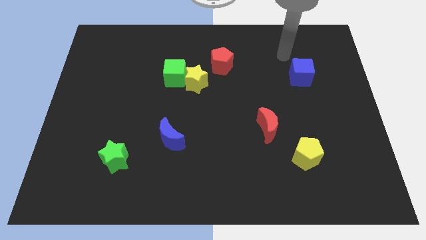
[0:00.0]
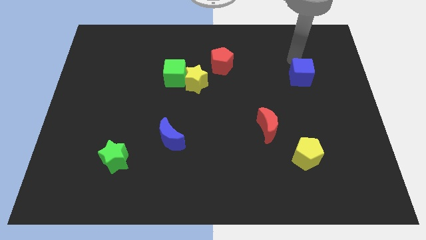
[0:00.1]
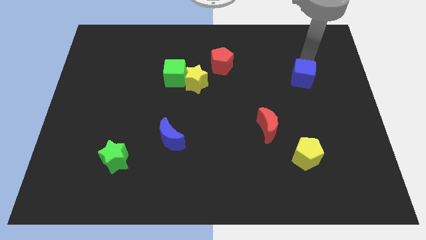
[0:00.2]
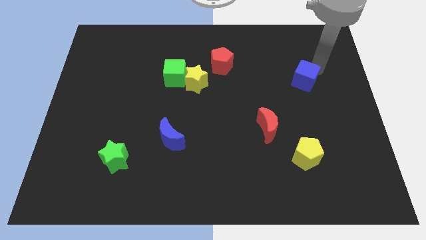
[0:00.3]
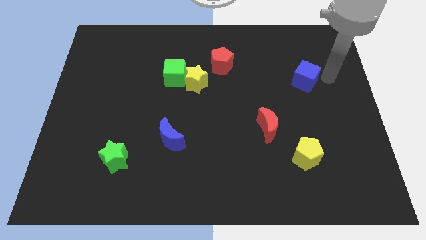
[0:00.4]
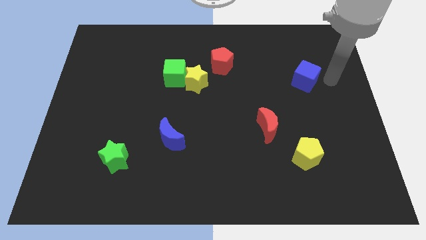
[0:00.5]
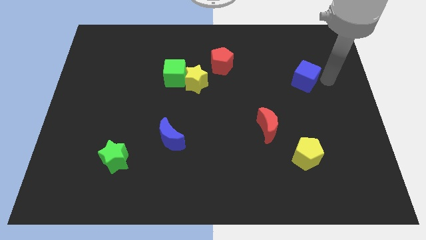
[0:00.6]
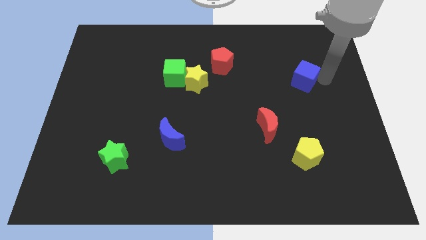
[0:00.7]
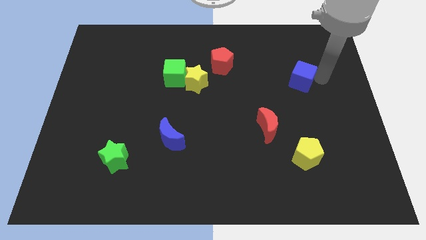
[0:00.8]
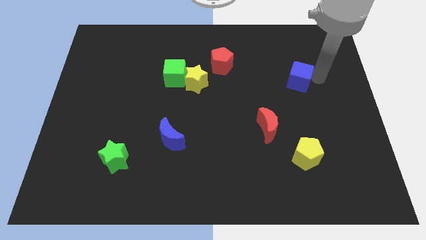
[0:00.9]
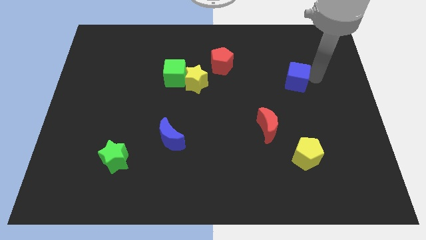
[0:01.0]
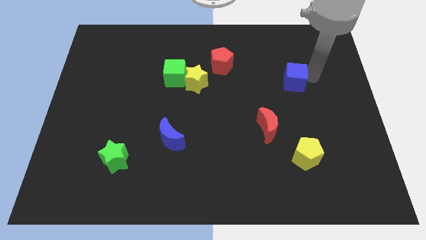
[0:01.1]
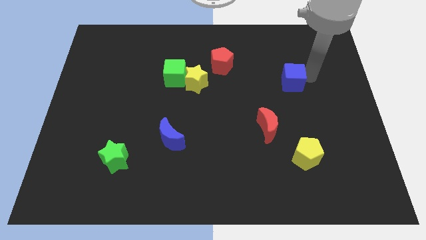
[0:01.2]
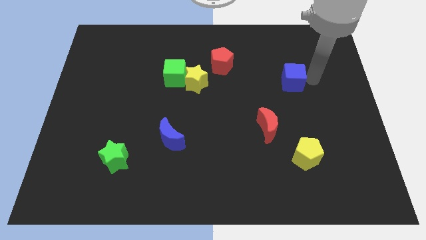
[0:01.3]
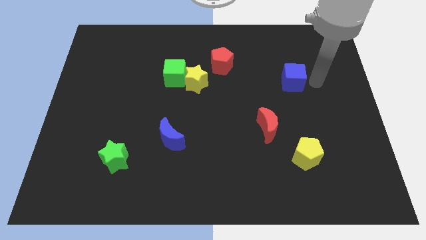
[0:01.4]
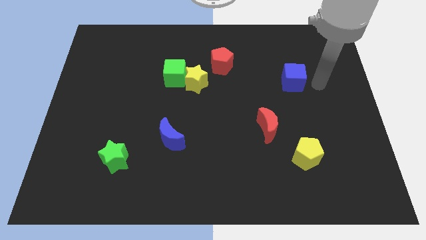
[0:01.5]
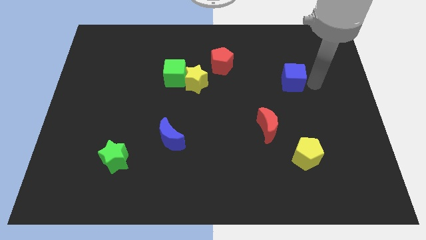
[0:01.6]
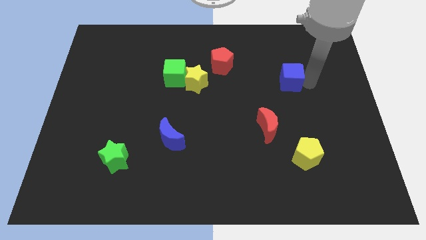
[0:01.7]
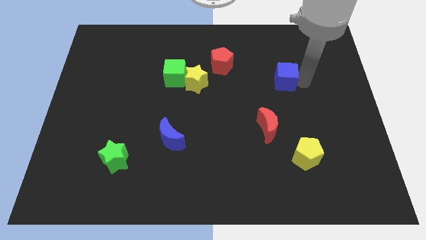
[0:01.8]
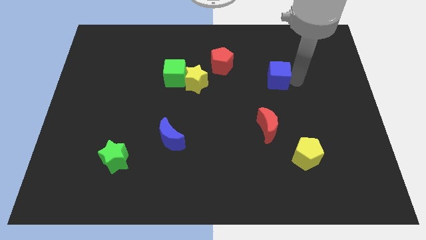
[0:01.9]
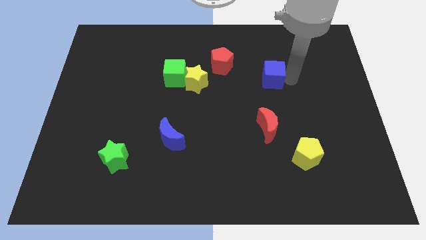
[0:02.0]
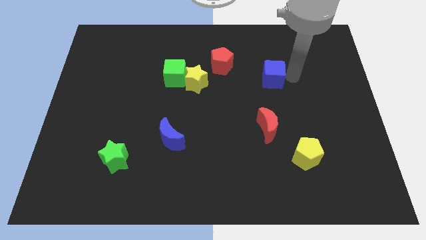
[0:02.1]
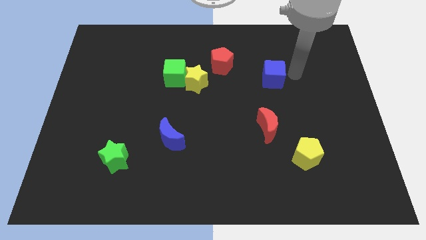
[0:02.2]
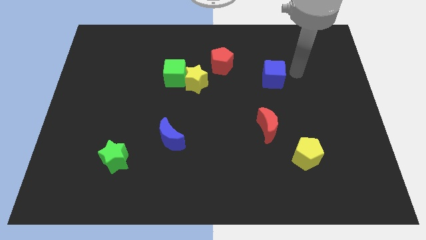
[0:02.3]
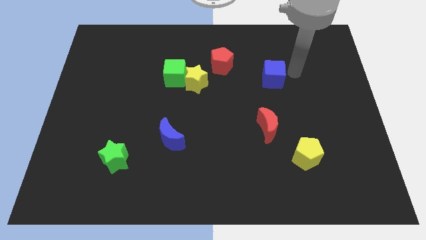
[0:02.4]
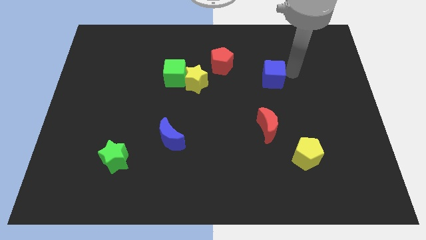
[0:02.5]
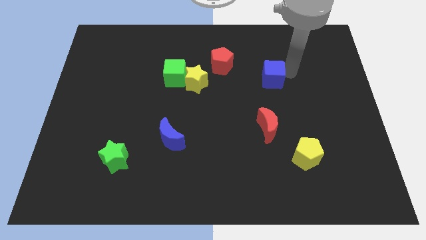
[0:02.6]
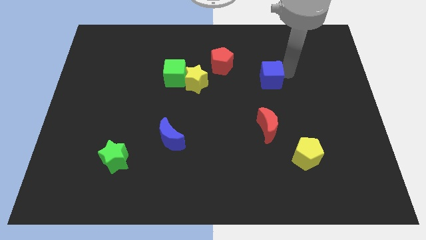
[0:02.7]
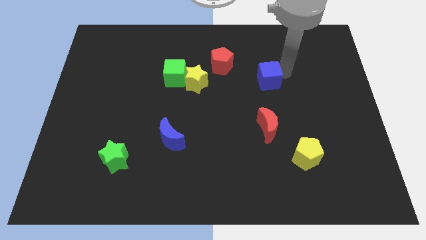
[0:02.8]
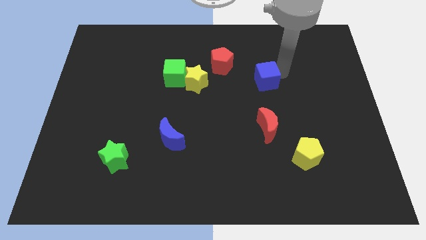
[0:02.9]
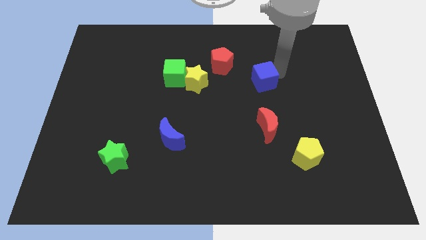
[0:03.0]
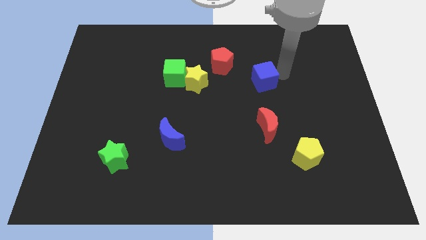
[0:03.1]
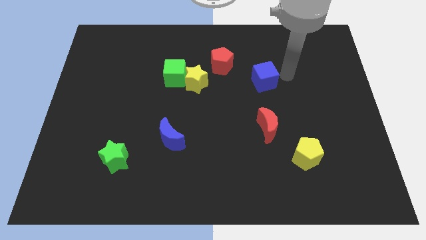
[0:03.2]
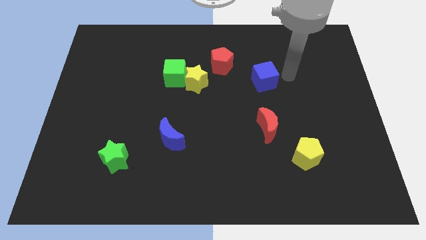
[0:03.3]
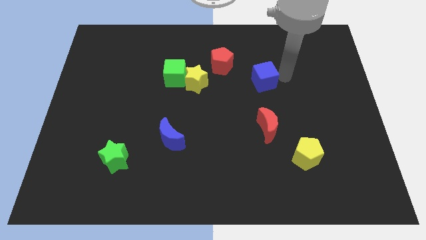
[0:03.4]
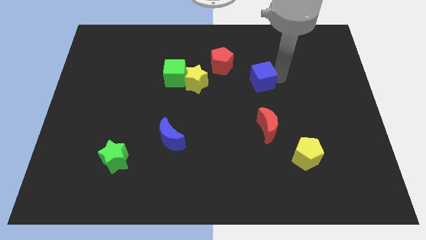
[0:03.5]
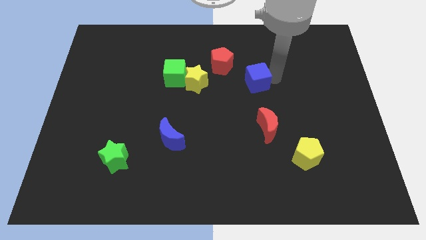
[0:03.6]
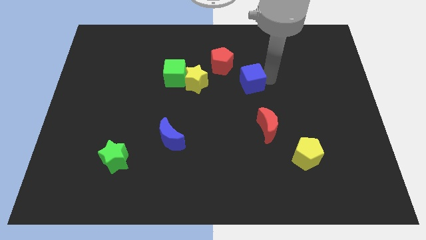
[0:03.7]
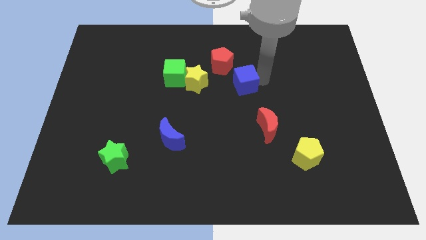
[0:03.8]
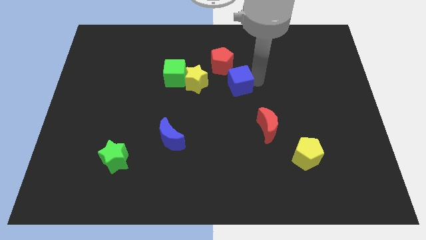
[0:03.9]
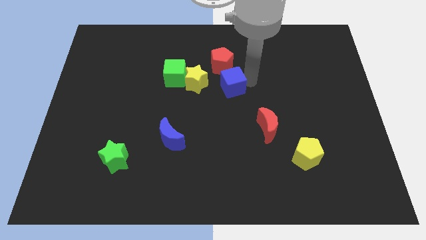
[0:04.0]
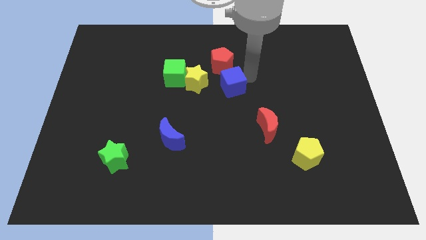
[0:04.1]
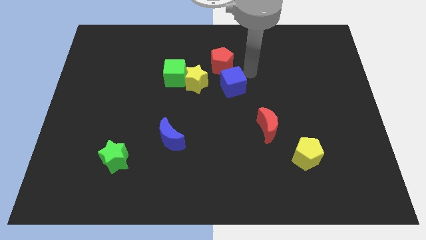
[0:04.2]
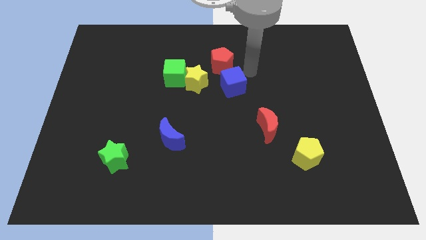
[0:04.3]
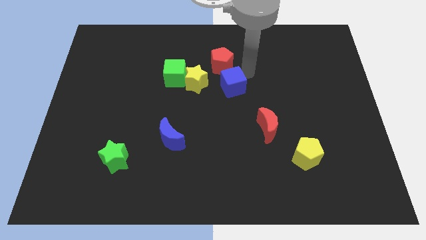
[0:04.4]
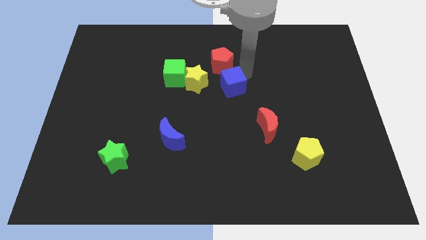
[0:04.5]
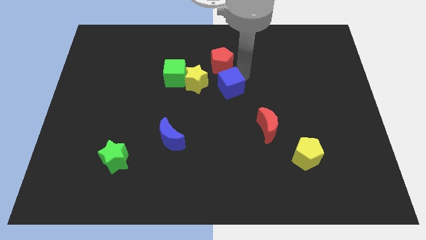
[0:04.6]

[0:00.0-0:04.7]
slide the blue cube to the bottom right of the yellow star

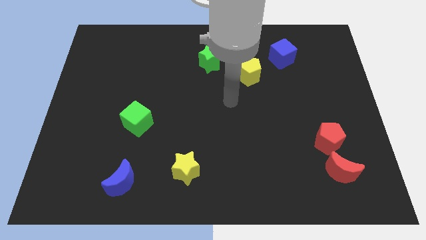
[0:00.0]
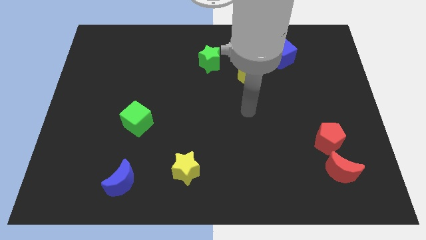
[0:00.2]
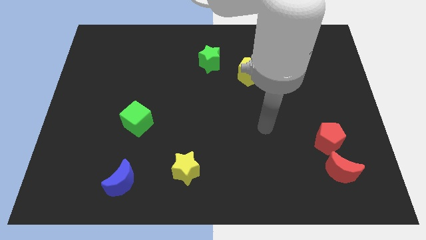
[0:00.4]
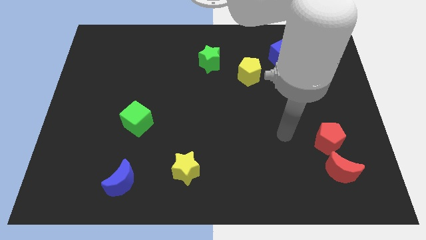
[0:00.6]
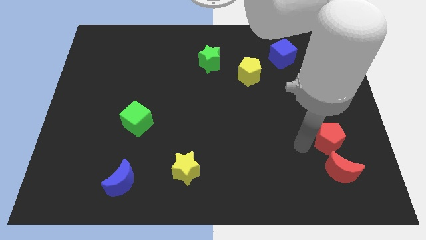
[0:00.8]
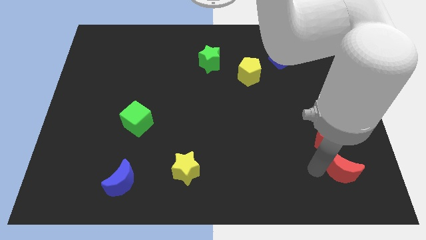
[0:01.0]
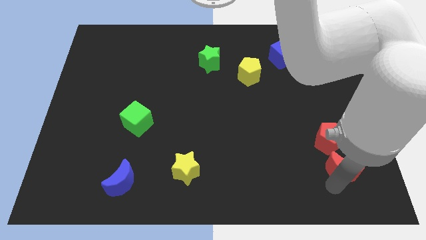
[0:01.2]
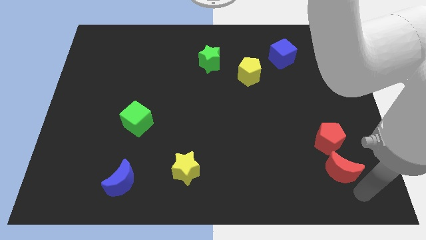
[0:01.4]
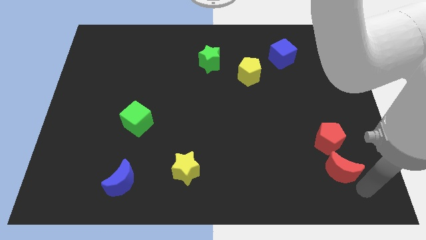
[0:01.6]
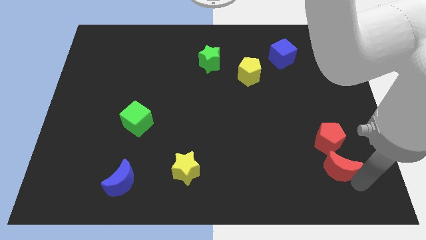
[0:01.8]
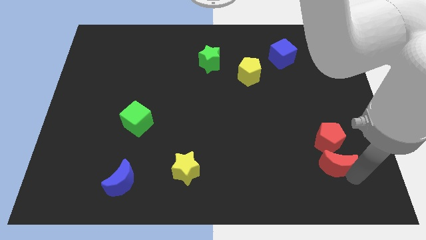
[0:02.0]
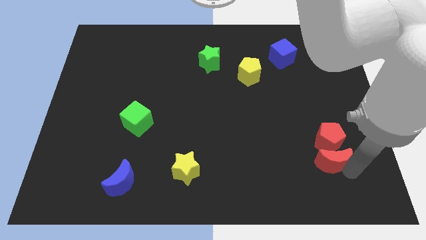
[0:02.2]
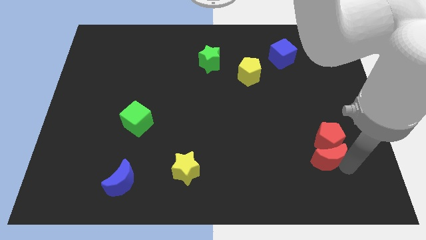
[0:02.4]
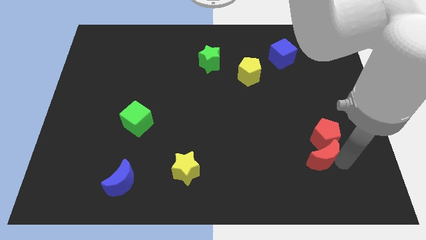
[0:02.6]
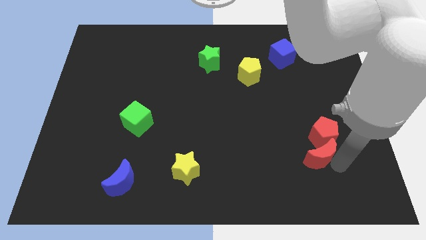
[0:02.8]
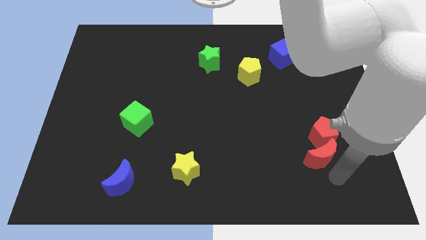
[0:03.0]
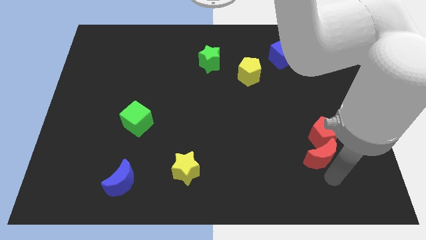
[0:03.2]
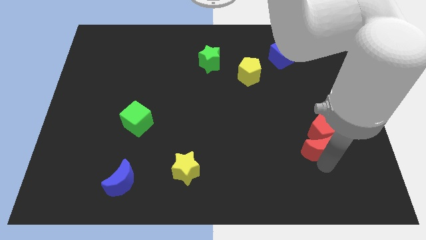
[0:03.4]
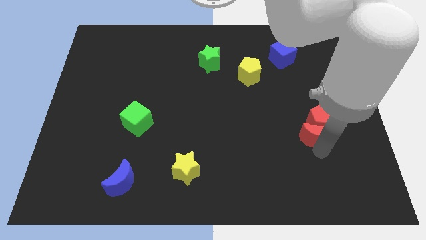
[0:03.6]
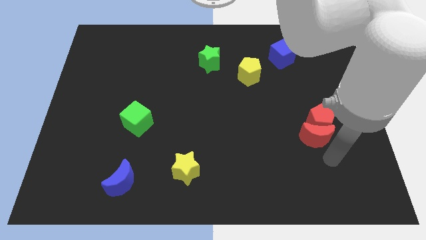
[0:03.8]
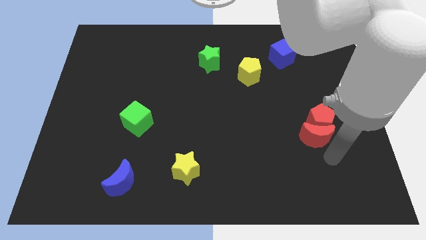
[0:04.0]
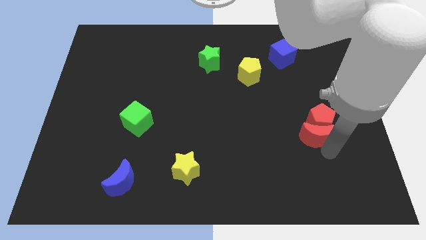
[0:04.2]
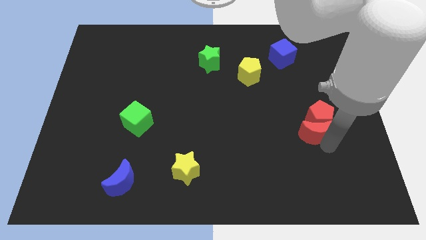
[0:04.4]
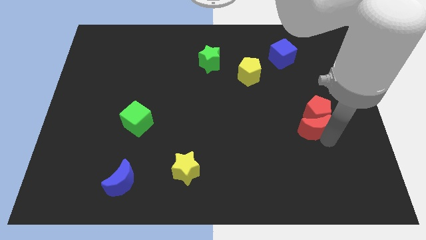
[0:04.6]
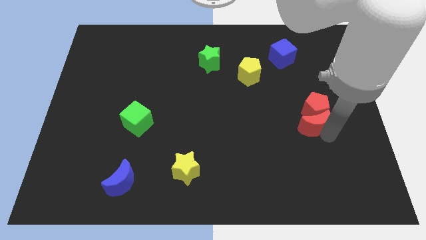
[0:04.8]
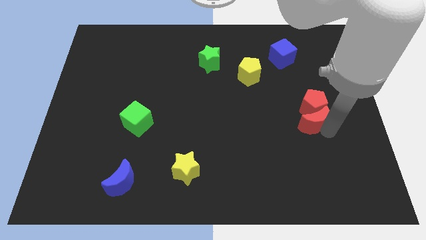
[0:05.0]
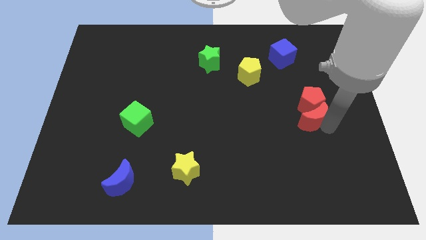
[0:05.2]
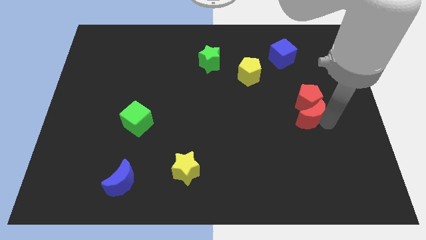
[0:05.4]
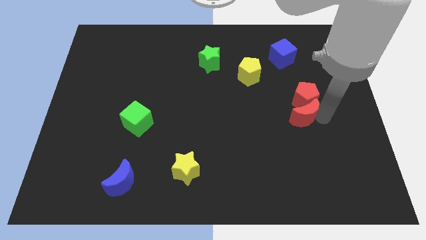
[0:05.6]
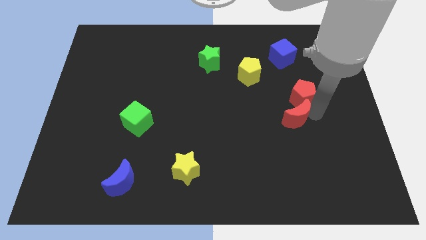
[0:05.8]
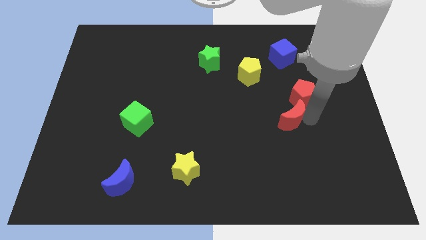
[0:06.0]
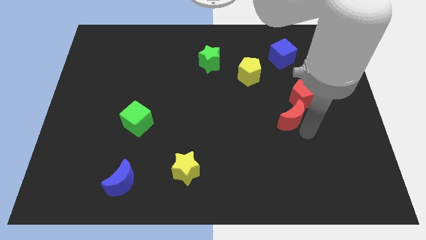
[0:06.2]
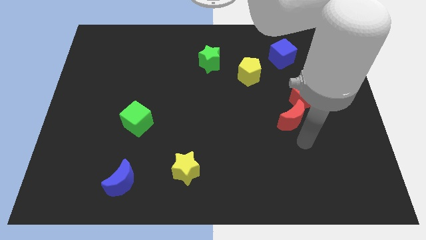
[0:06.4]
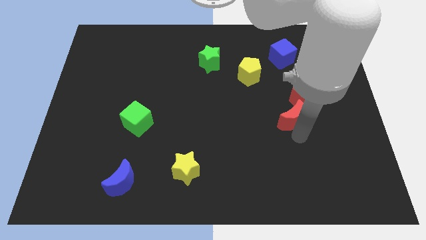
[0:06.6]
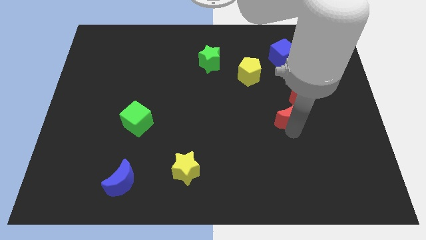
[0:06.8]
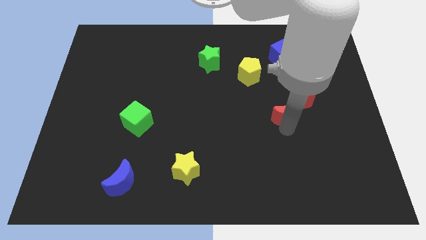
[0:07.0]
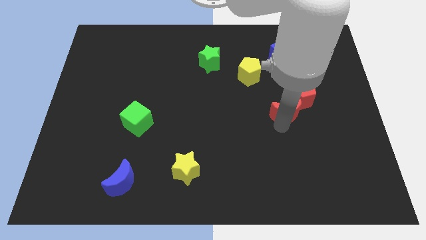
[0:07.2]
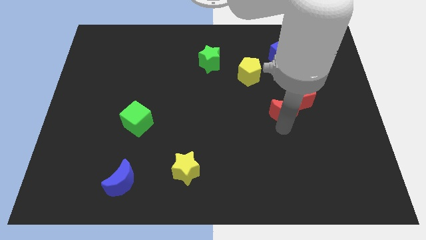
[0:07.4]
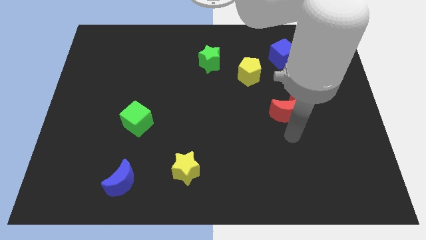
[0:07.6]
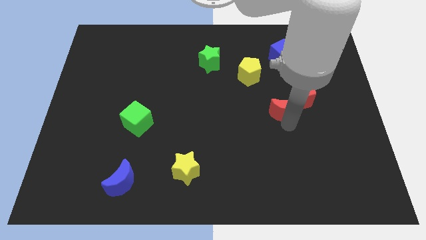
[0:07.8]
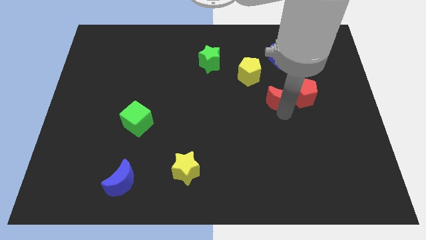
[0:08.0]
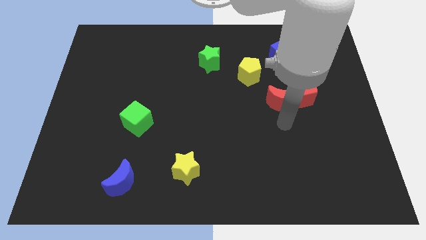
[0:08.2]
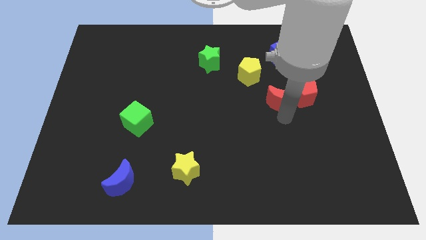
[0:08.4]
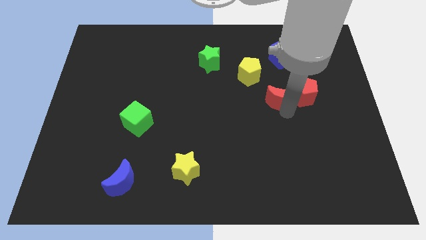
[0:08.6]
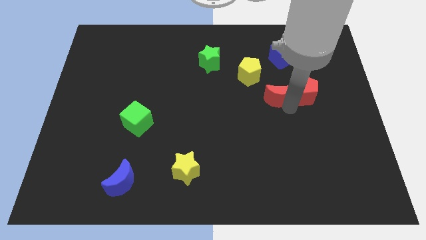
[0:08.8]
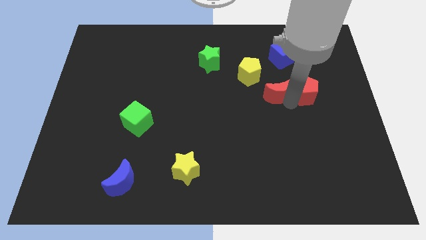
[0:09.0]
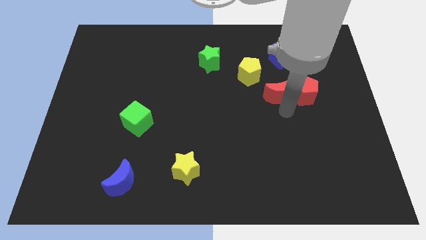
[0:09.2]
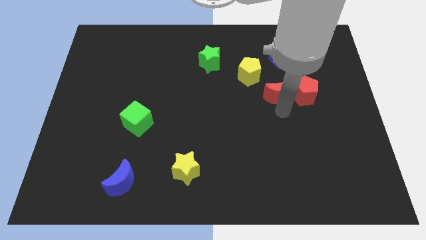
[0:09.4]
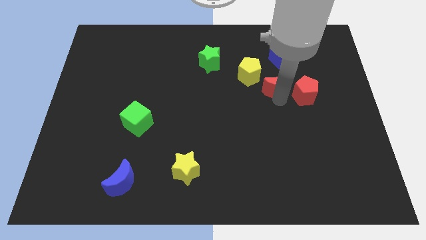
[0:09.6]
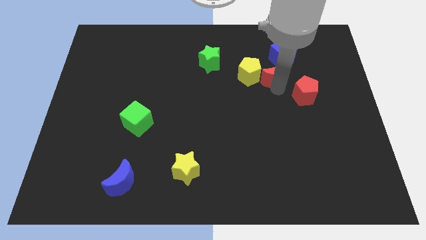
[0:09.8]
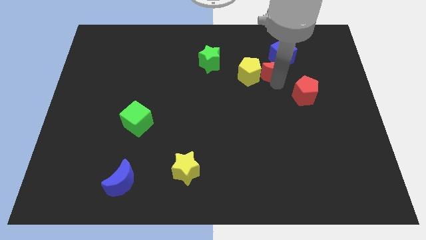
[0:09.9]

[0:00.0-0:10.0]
push the red moon diagonally up and to the right of the yellow pentagon
